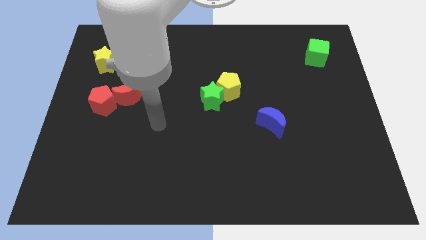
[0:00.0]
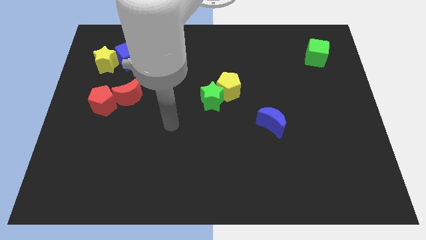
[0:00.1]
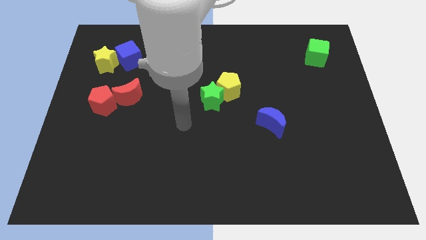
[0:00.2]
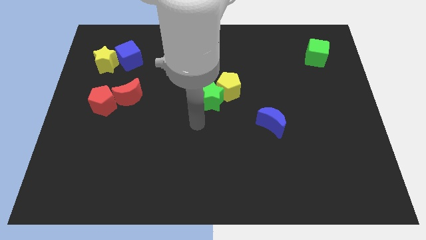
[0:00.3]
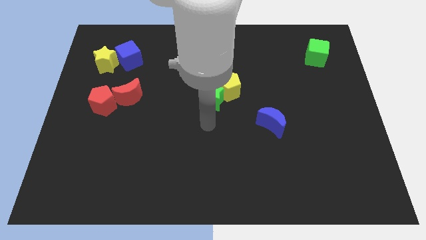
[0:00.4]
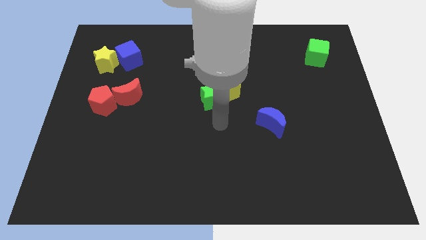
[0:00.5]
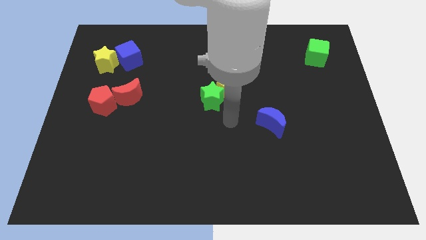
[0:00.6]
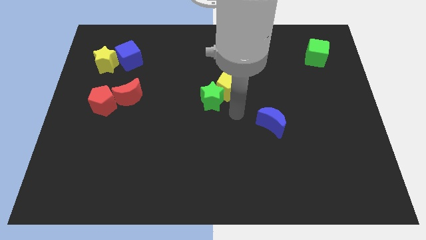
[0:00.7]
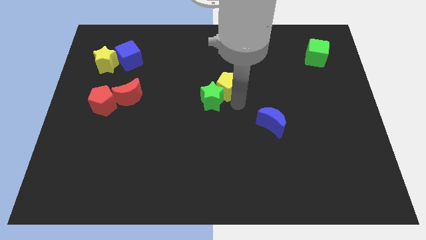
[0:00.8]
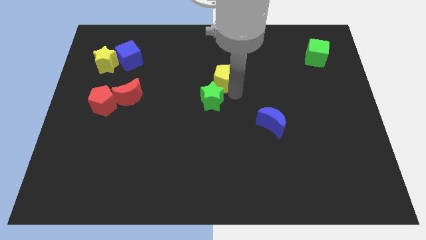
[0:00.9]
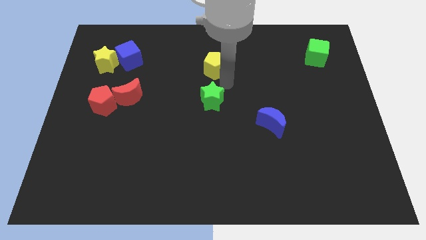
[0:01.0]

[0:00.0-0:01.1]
pull the green star apart from the yellow pentagon

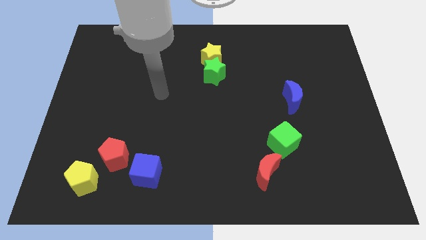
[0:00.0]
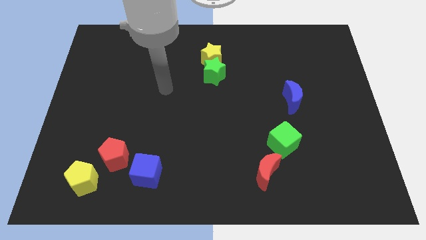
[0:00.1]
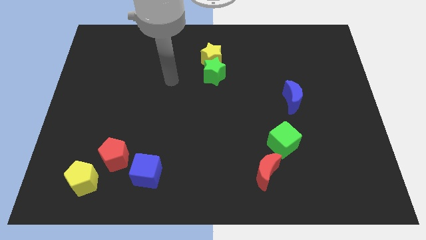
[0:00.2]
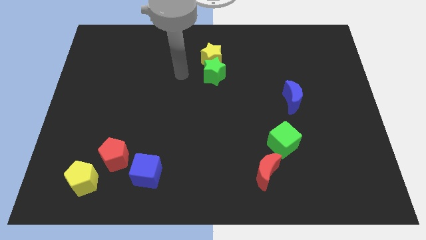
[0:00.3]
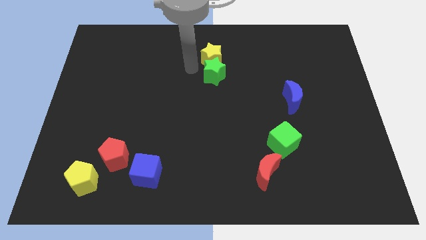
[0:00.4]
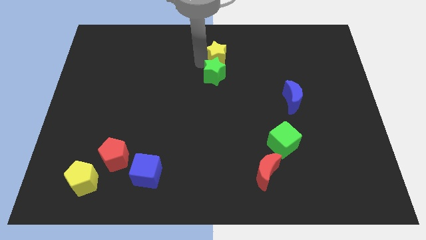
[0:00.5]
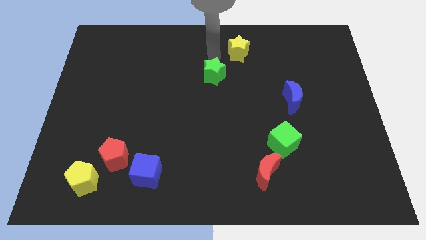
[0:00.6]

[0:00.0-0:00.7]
separate the green star from the yellow star

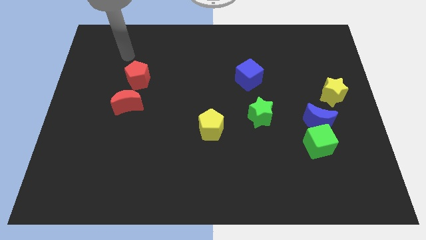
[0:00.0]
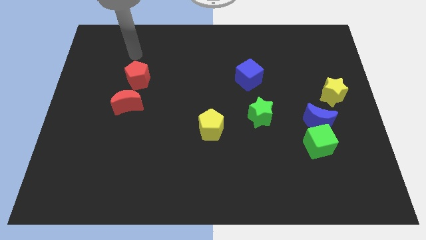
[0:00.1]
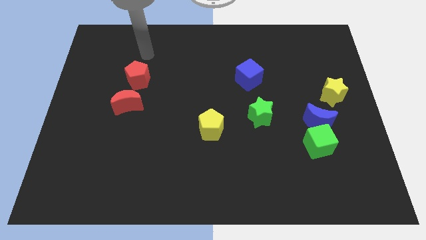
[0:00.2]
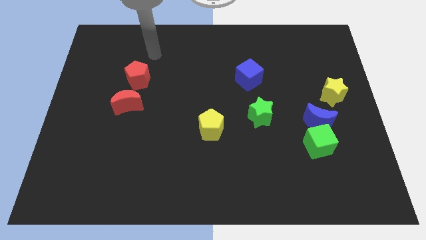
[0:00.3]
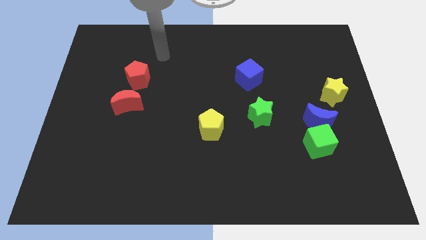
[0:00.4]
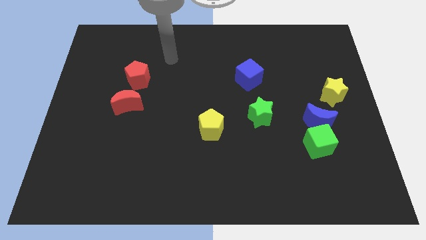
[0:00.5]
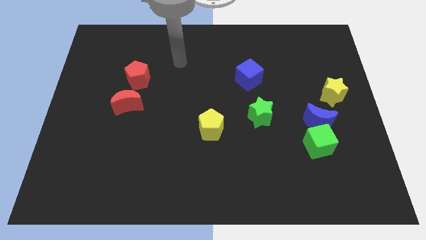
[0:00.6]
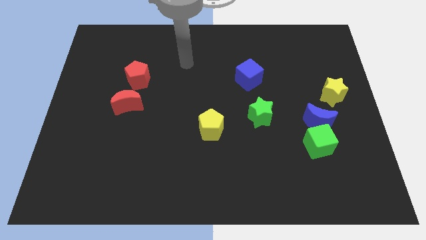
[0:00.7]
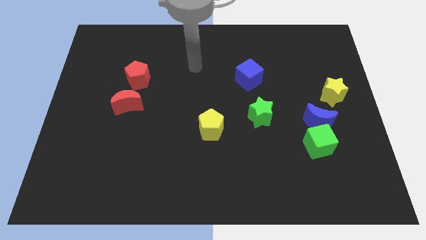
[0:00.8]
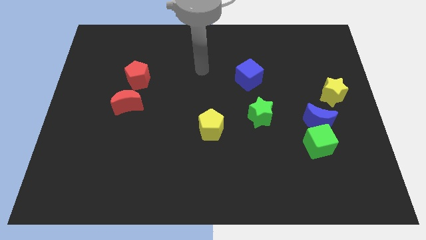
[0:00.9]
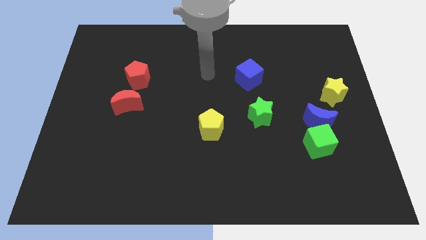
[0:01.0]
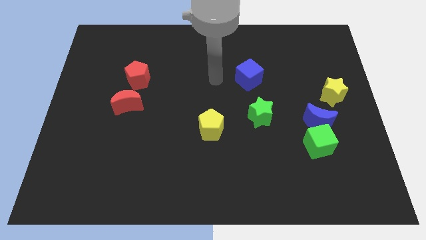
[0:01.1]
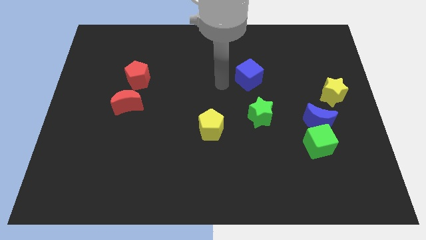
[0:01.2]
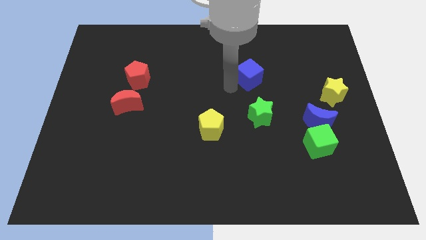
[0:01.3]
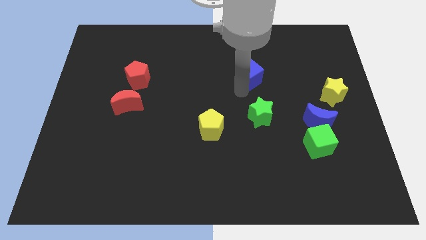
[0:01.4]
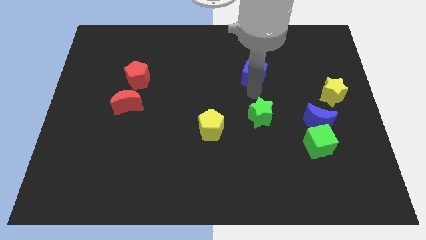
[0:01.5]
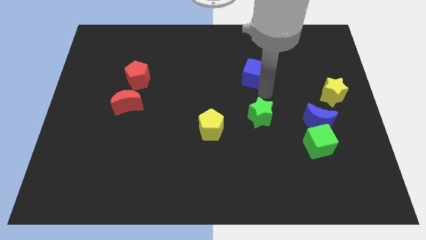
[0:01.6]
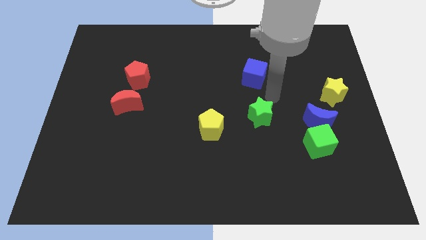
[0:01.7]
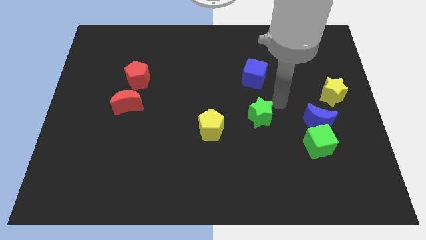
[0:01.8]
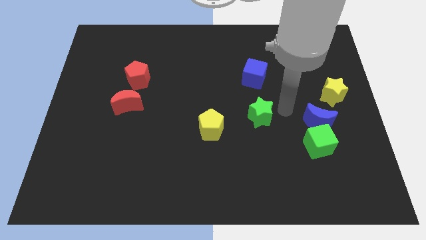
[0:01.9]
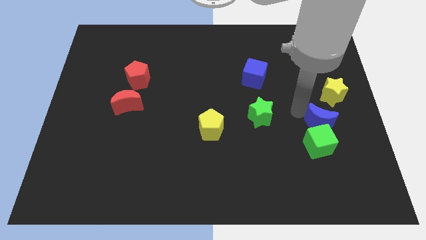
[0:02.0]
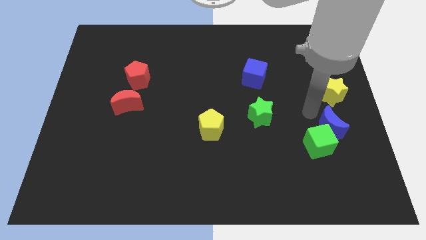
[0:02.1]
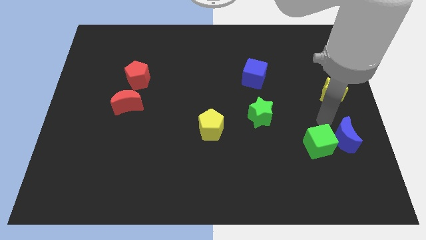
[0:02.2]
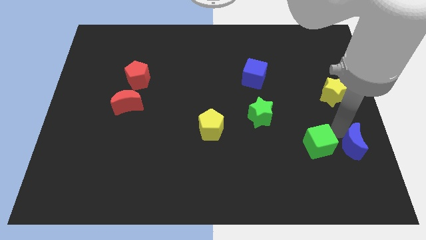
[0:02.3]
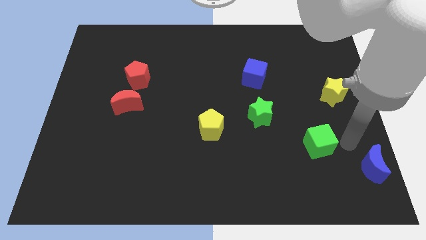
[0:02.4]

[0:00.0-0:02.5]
separate the green cube from the blue moon

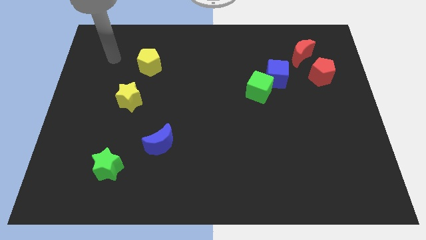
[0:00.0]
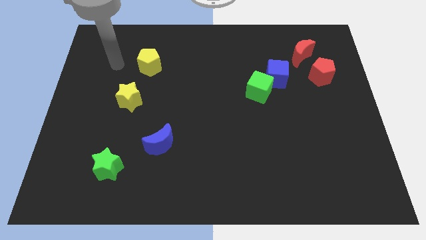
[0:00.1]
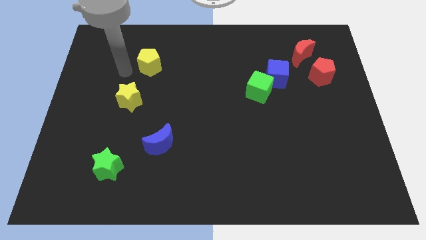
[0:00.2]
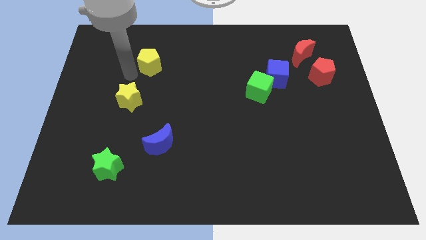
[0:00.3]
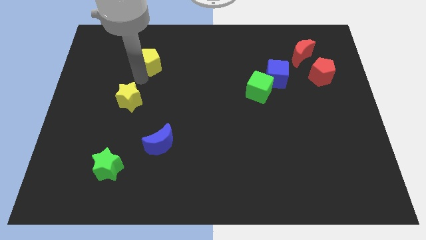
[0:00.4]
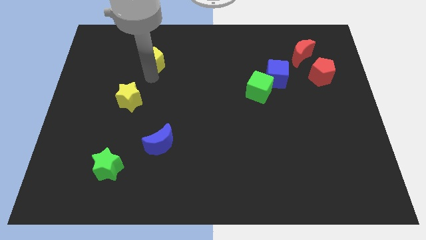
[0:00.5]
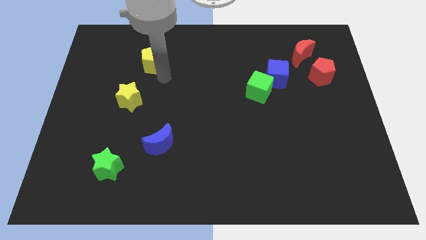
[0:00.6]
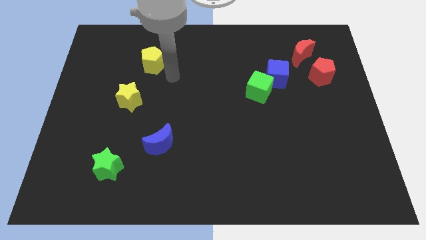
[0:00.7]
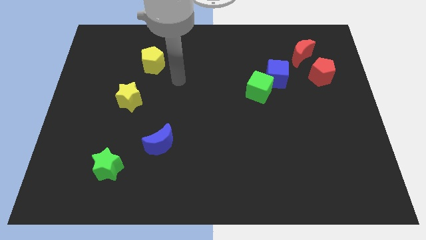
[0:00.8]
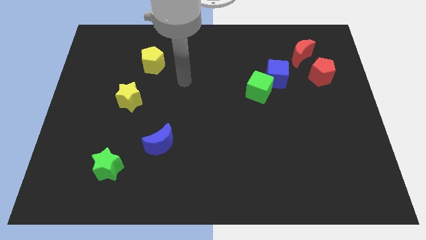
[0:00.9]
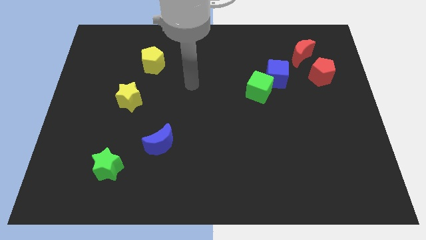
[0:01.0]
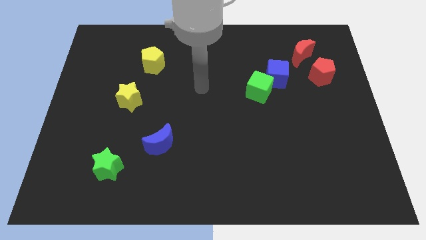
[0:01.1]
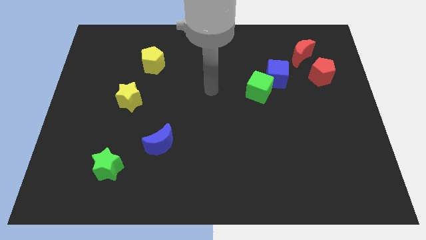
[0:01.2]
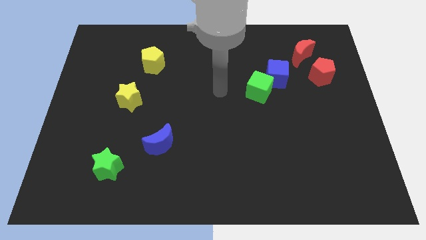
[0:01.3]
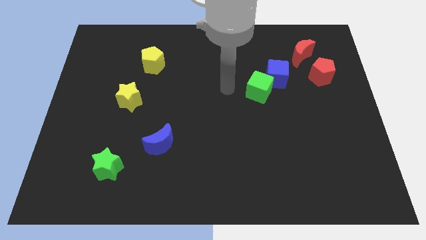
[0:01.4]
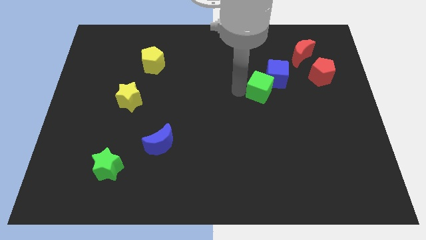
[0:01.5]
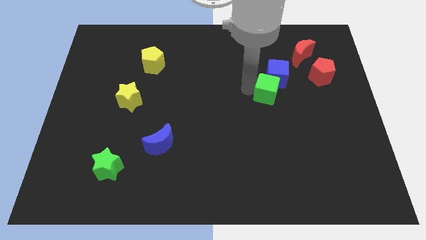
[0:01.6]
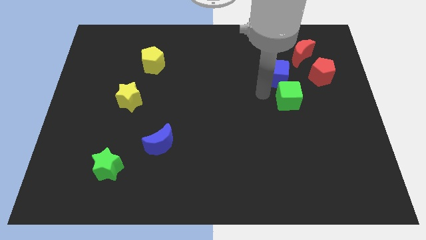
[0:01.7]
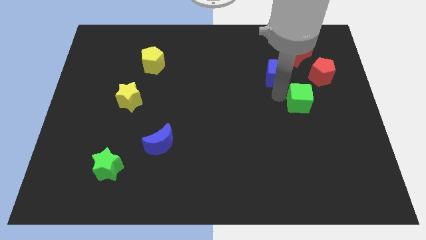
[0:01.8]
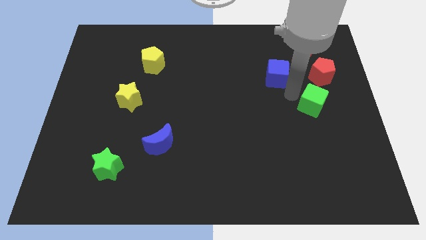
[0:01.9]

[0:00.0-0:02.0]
pull the blue cube apart from the green cube

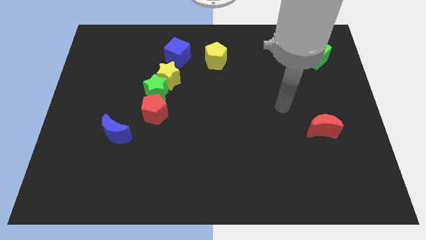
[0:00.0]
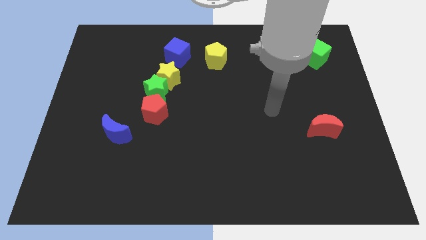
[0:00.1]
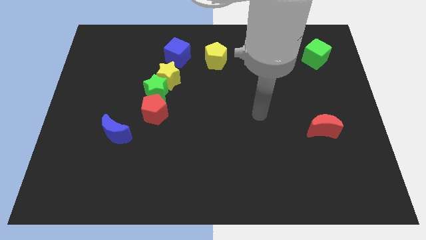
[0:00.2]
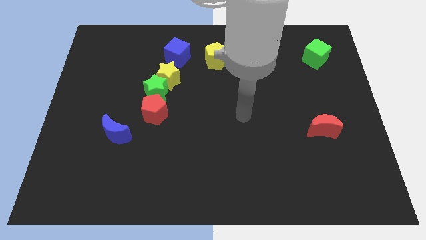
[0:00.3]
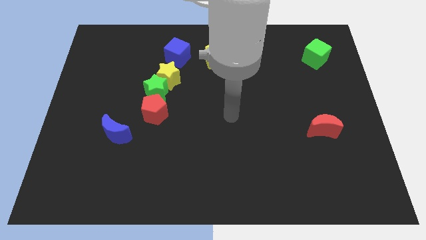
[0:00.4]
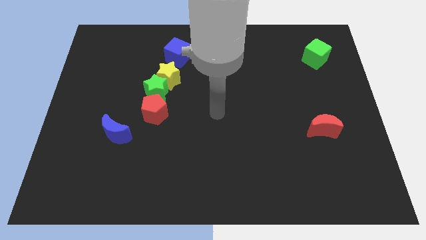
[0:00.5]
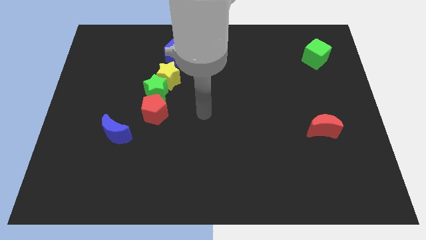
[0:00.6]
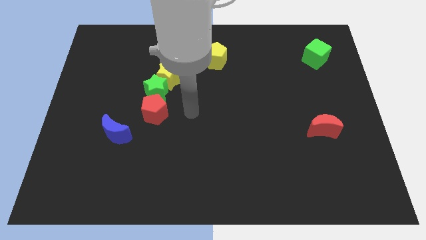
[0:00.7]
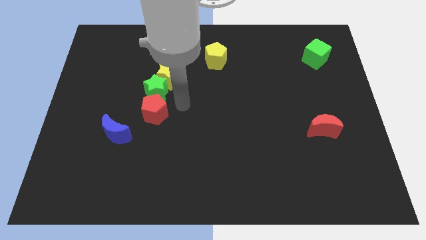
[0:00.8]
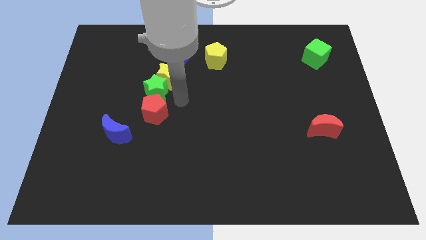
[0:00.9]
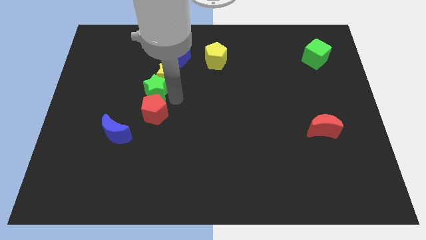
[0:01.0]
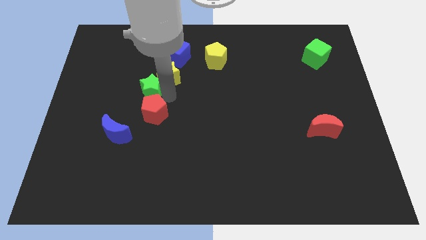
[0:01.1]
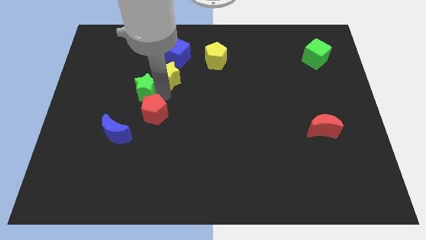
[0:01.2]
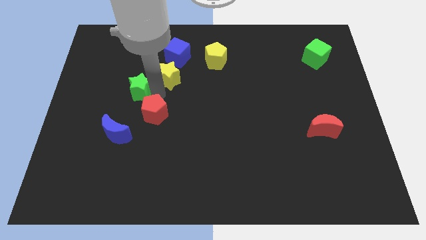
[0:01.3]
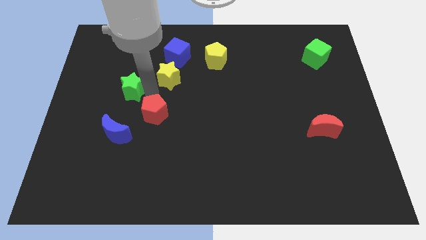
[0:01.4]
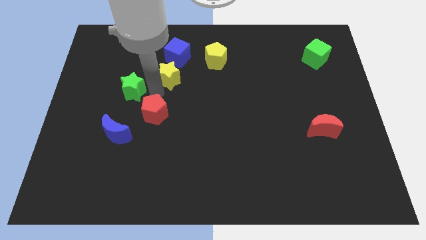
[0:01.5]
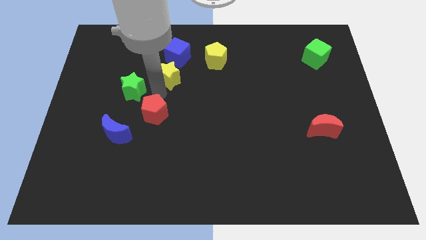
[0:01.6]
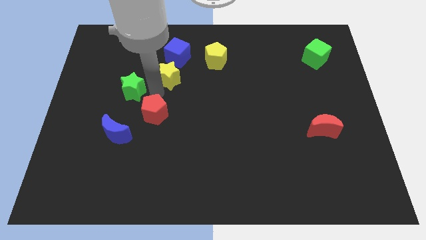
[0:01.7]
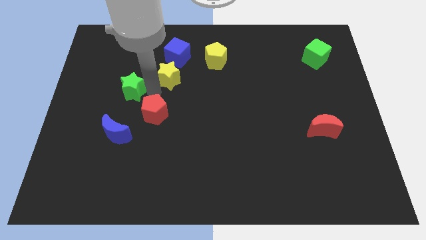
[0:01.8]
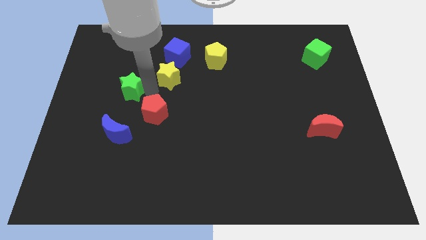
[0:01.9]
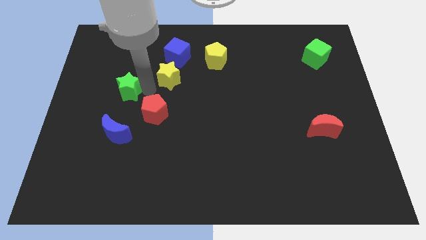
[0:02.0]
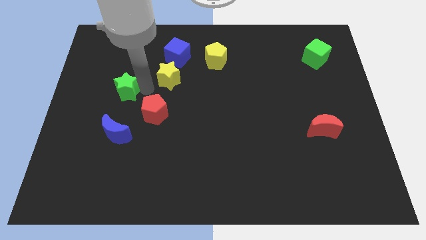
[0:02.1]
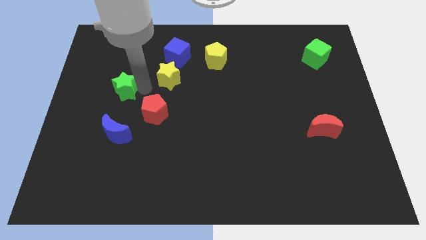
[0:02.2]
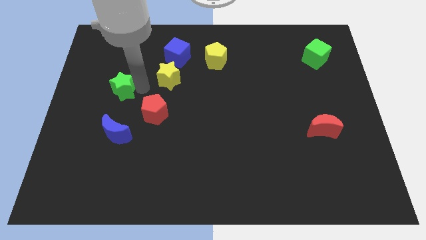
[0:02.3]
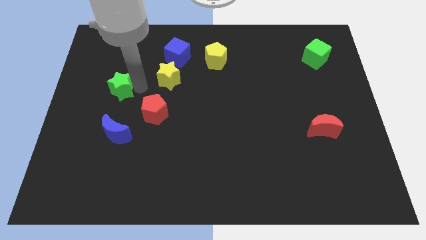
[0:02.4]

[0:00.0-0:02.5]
pull the green star apart from the yellow star and red pentagon

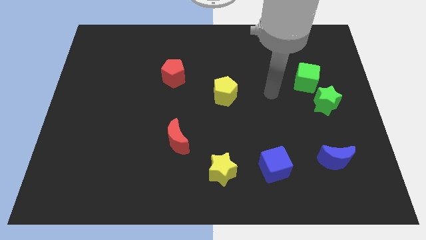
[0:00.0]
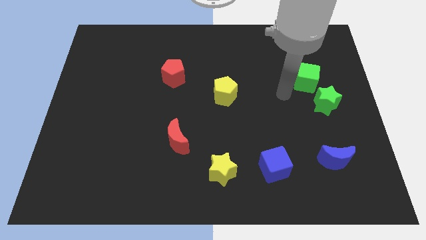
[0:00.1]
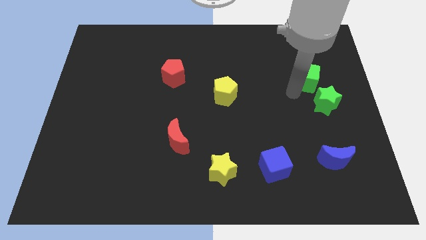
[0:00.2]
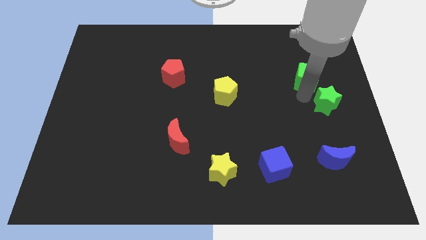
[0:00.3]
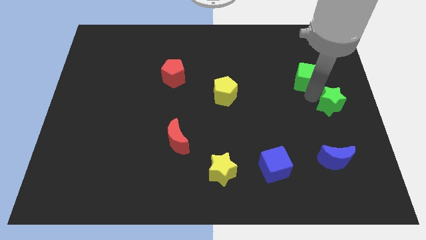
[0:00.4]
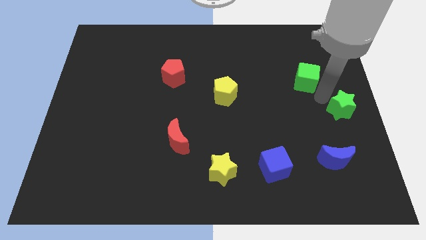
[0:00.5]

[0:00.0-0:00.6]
separate the green cube from the green star
